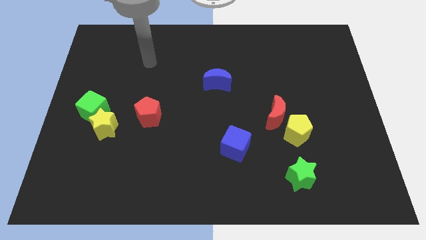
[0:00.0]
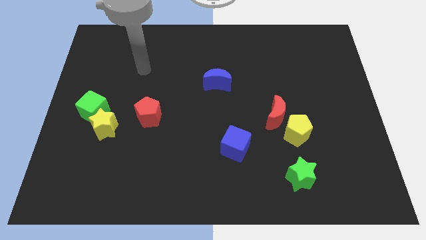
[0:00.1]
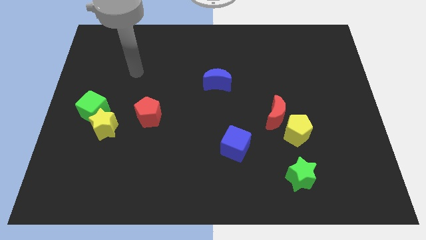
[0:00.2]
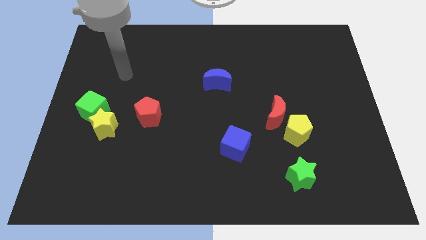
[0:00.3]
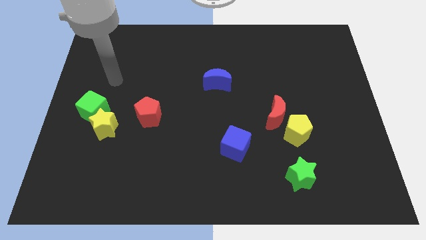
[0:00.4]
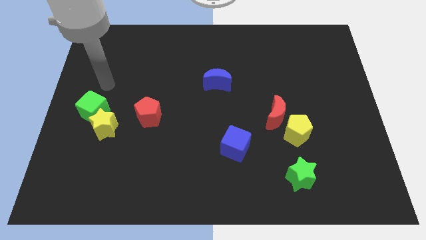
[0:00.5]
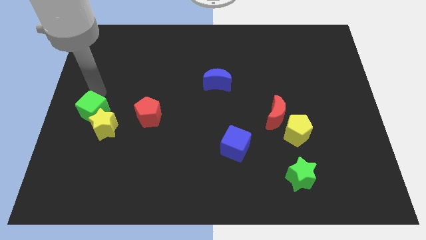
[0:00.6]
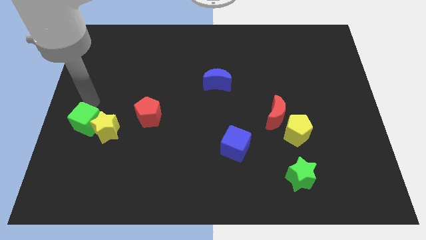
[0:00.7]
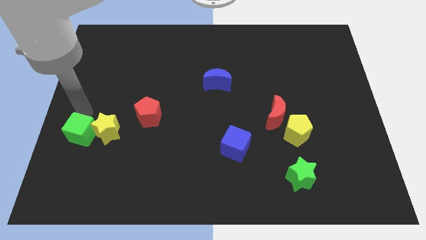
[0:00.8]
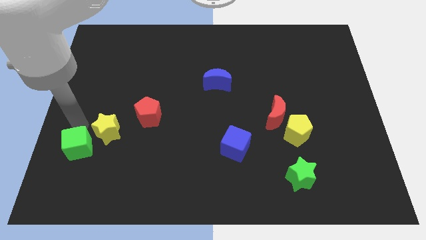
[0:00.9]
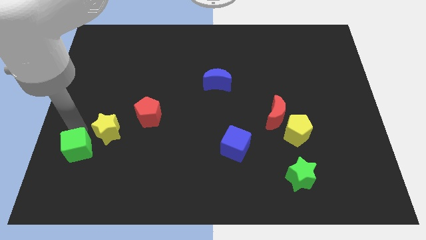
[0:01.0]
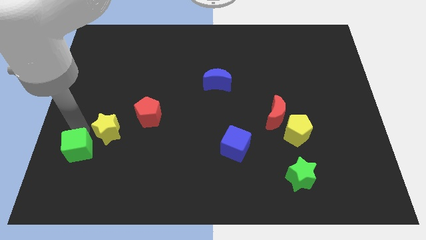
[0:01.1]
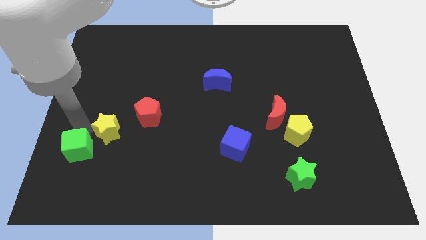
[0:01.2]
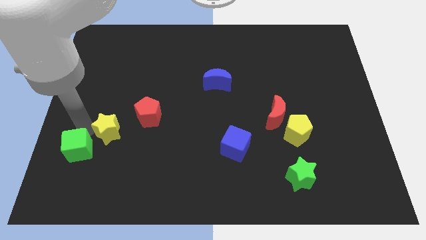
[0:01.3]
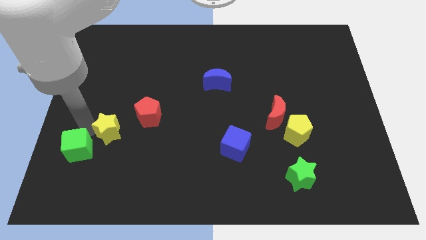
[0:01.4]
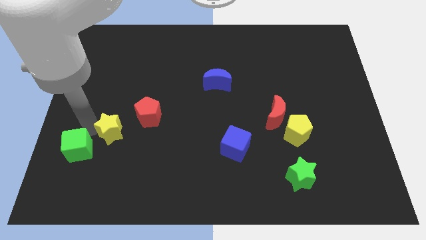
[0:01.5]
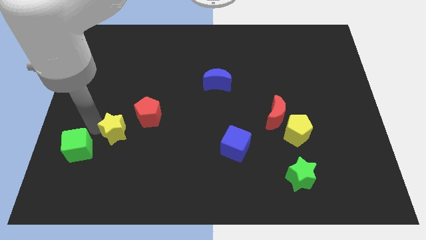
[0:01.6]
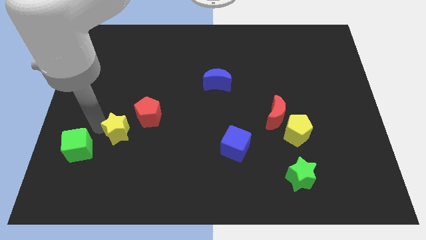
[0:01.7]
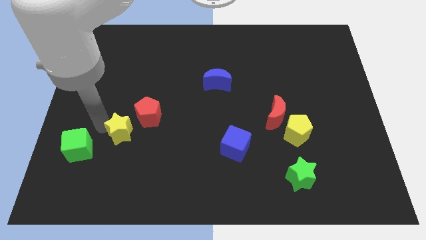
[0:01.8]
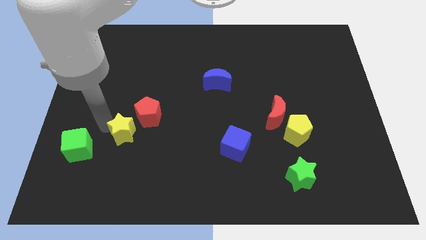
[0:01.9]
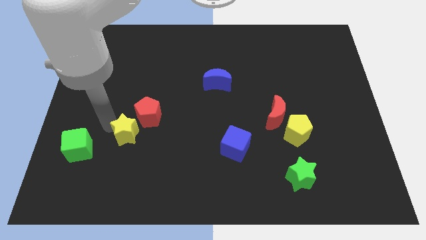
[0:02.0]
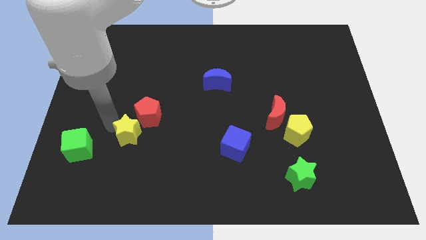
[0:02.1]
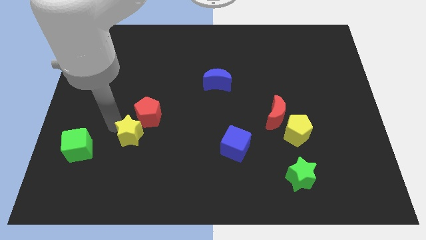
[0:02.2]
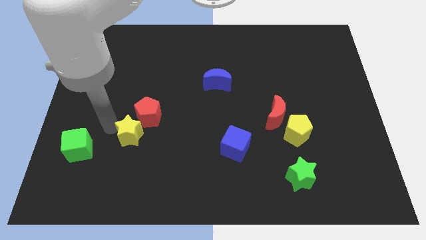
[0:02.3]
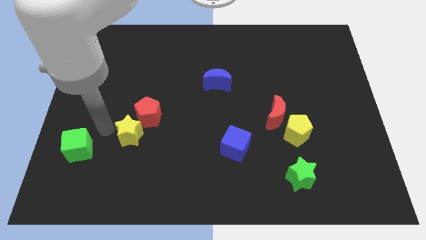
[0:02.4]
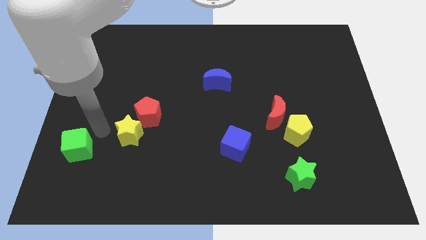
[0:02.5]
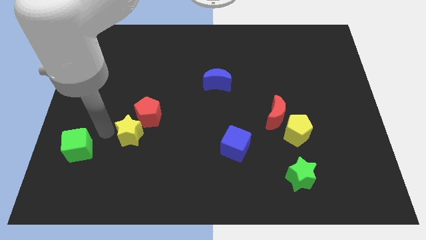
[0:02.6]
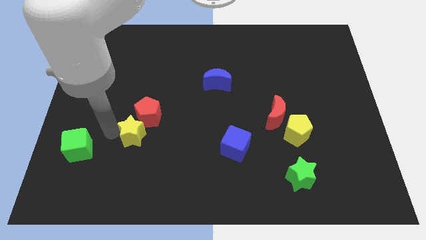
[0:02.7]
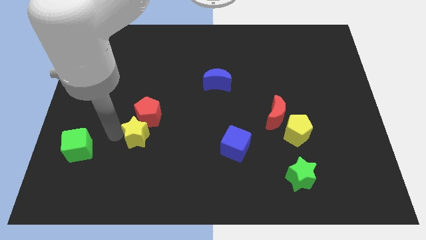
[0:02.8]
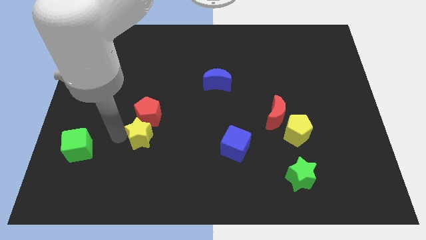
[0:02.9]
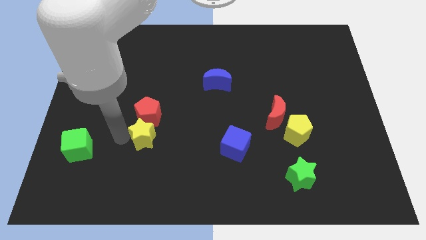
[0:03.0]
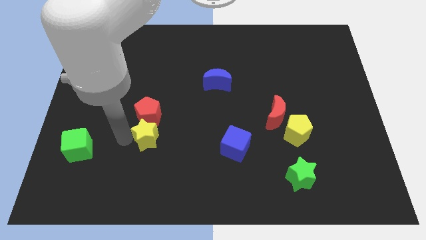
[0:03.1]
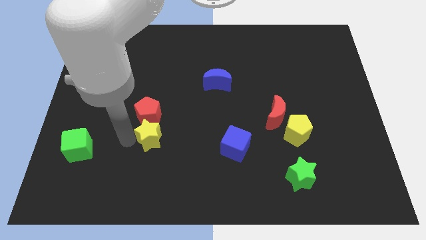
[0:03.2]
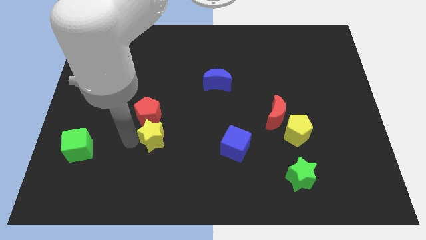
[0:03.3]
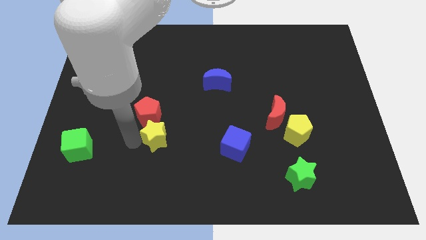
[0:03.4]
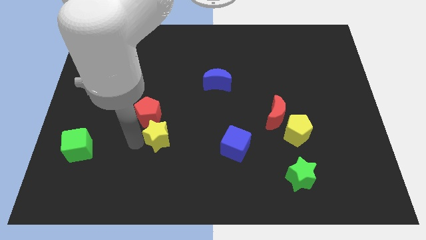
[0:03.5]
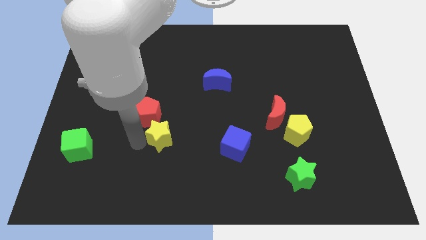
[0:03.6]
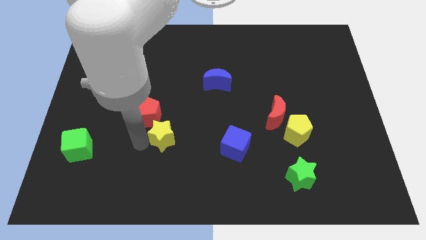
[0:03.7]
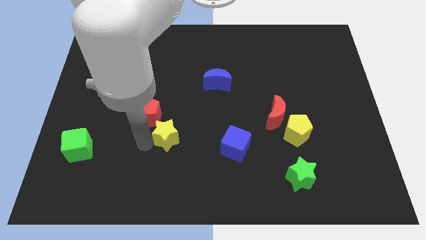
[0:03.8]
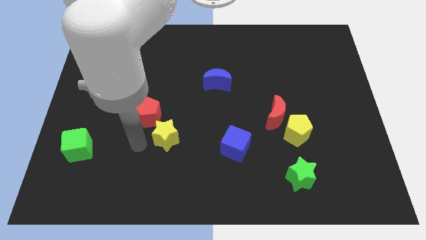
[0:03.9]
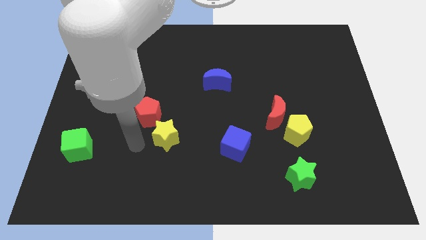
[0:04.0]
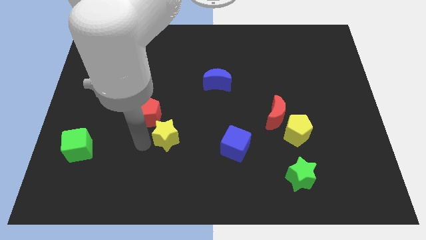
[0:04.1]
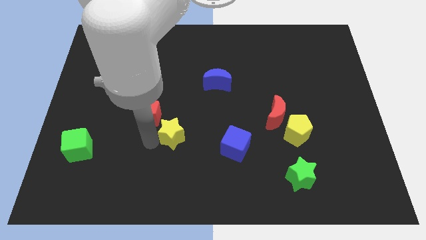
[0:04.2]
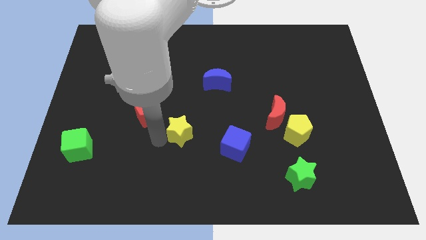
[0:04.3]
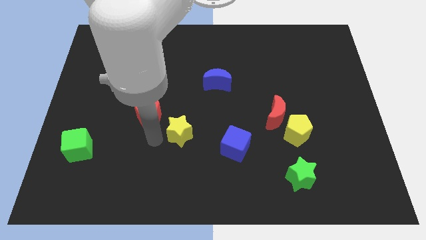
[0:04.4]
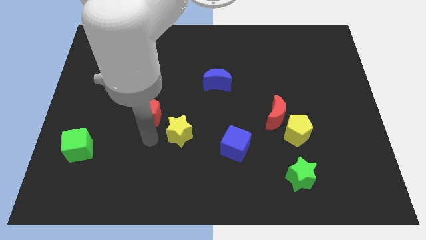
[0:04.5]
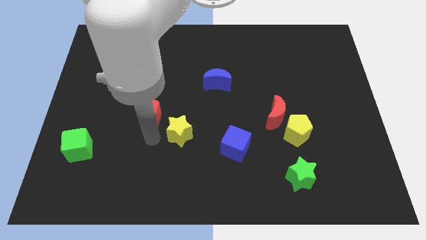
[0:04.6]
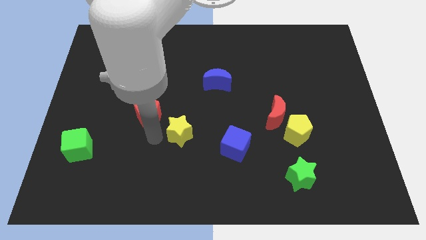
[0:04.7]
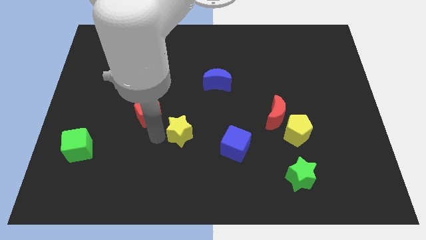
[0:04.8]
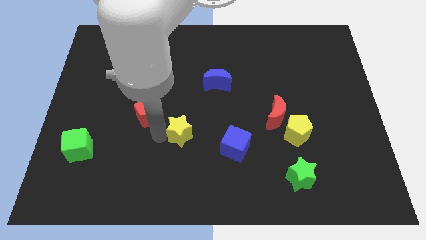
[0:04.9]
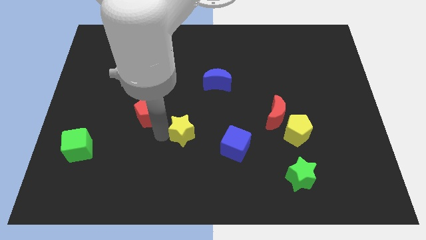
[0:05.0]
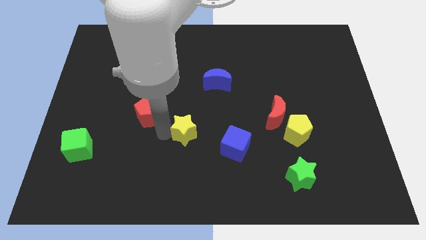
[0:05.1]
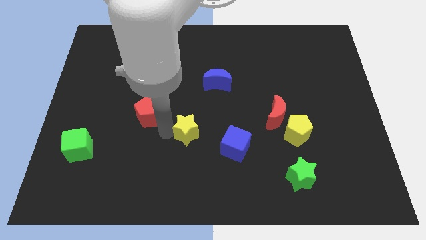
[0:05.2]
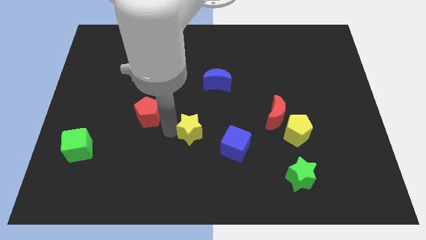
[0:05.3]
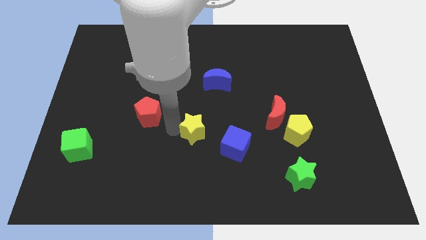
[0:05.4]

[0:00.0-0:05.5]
slide the yellow star to the right

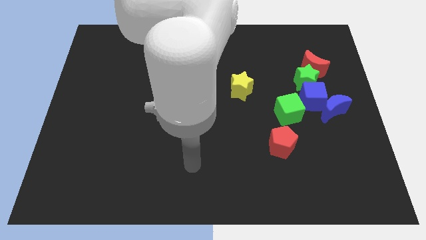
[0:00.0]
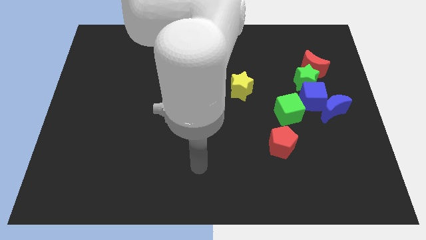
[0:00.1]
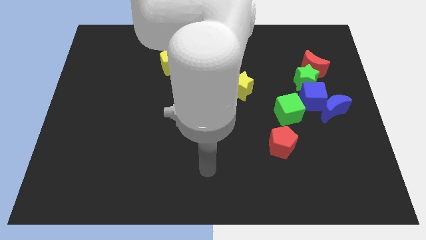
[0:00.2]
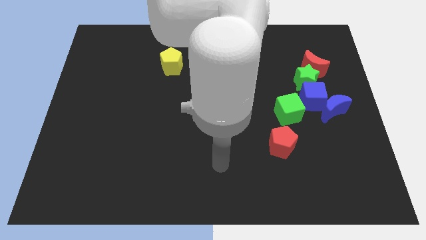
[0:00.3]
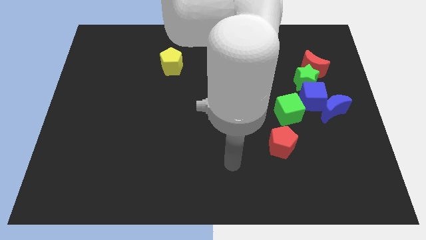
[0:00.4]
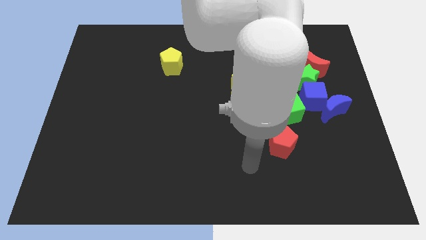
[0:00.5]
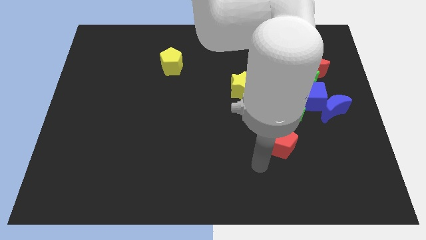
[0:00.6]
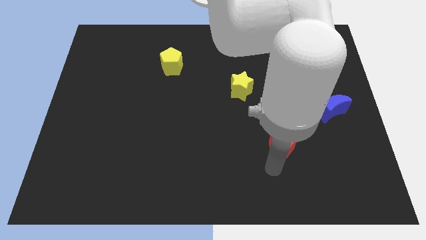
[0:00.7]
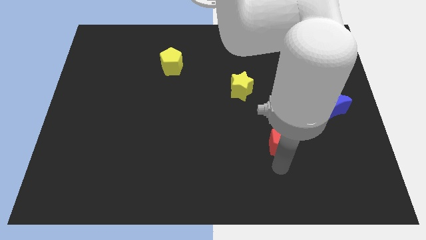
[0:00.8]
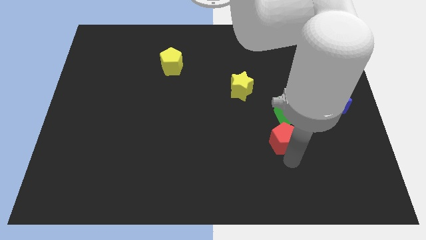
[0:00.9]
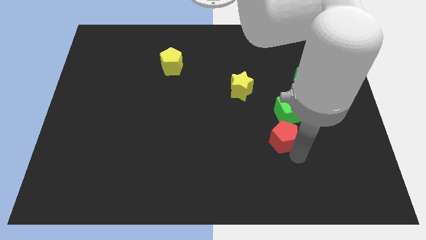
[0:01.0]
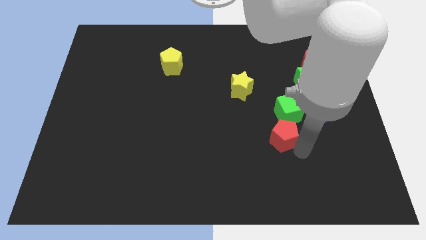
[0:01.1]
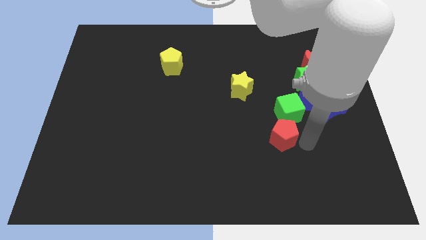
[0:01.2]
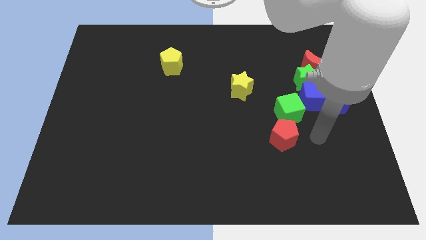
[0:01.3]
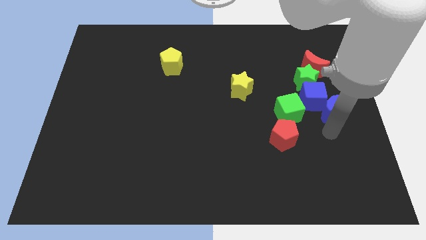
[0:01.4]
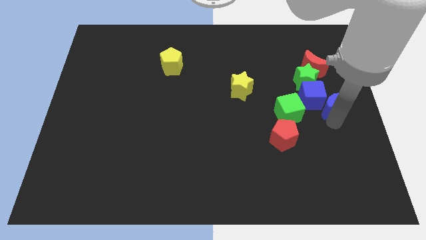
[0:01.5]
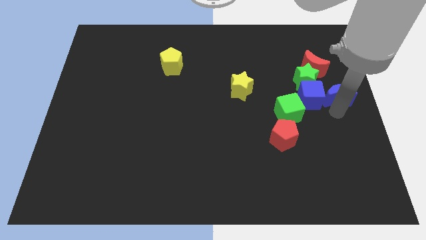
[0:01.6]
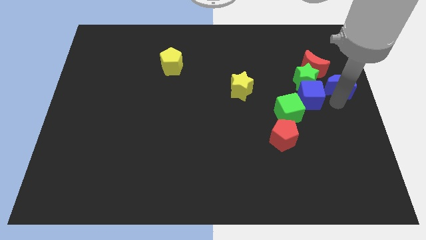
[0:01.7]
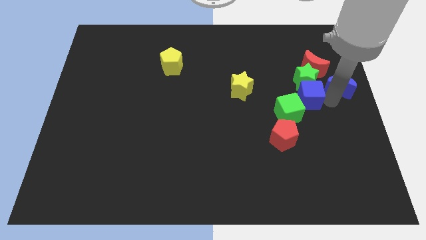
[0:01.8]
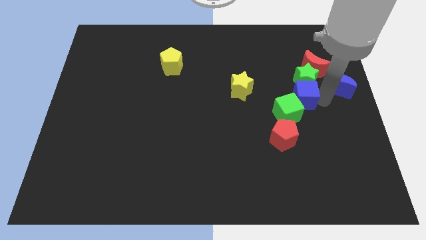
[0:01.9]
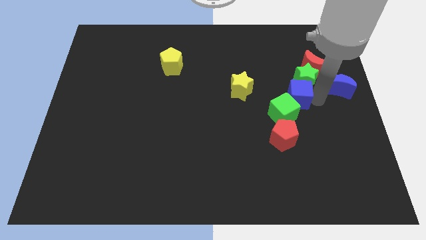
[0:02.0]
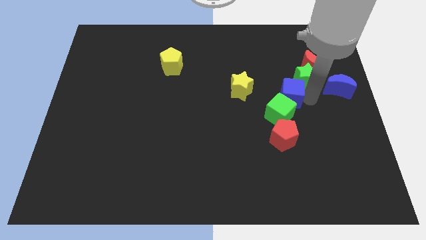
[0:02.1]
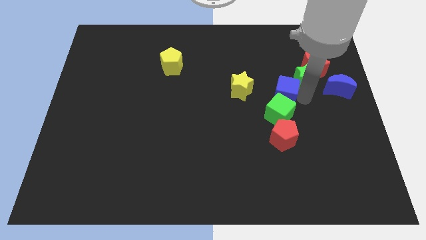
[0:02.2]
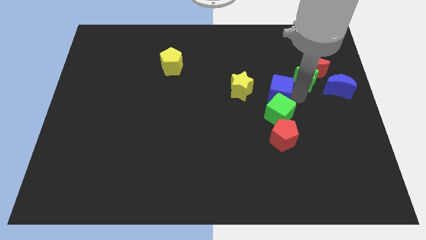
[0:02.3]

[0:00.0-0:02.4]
slide the blue cube left a bit
